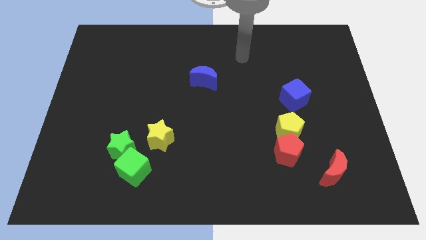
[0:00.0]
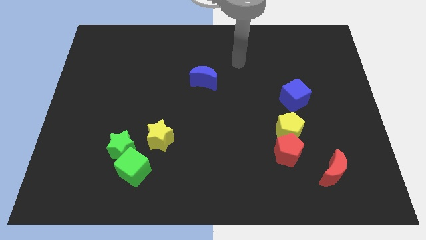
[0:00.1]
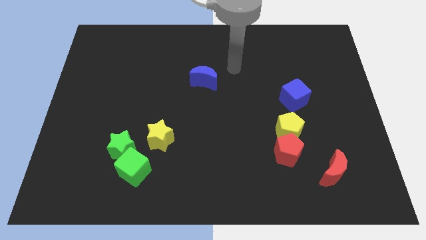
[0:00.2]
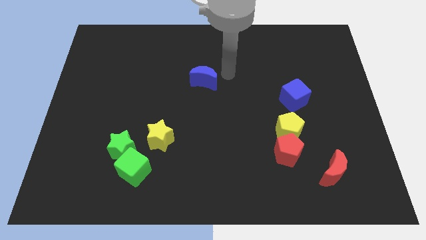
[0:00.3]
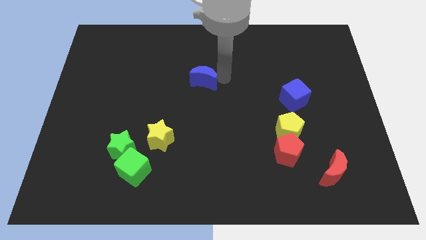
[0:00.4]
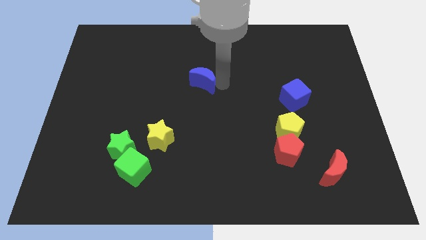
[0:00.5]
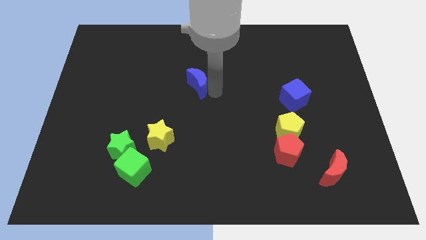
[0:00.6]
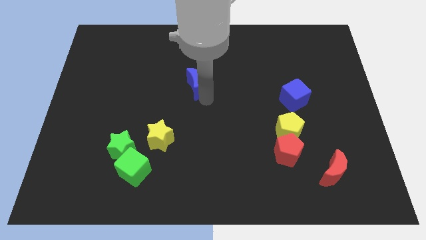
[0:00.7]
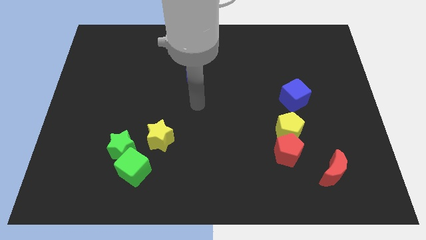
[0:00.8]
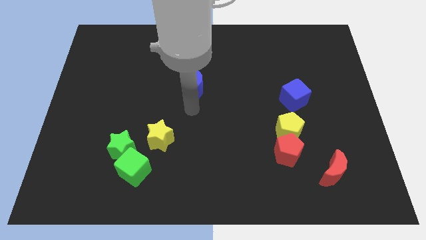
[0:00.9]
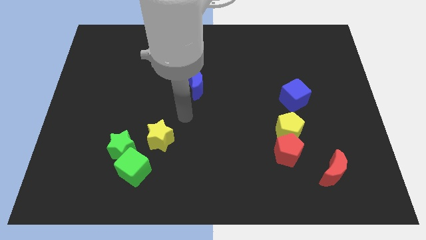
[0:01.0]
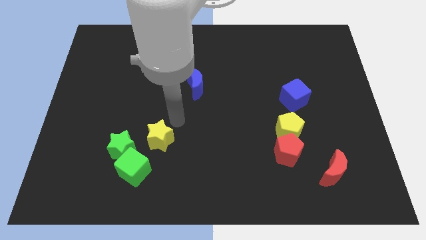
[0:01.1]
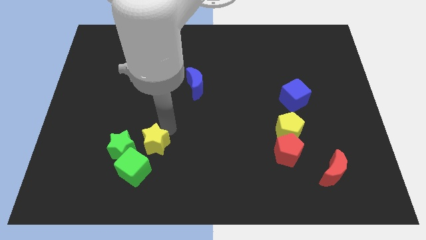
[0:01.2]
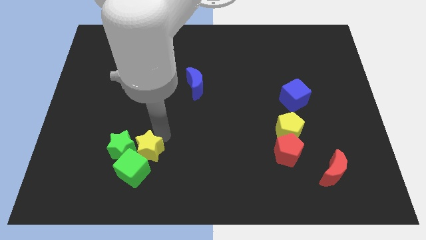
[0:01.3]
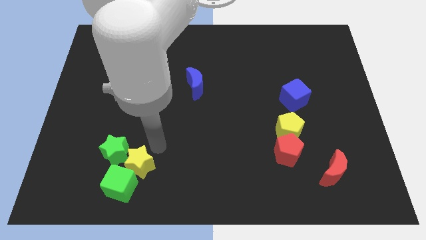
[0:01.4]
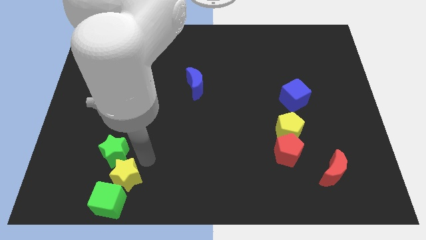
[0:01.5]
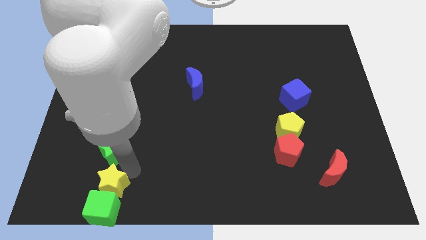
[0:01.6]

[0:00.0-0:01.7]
move the green star away from the green cube and yellow star

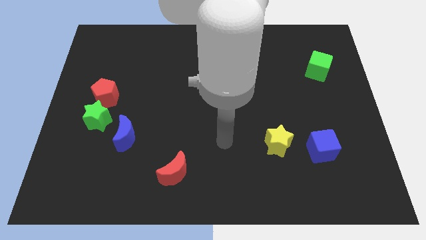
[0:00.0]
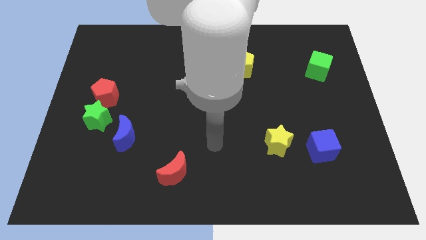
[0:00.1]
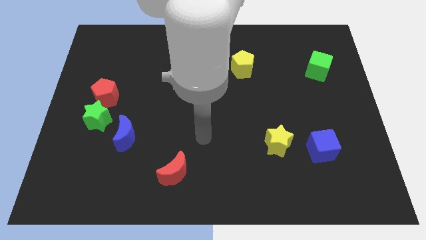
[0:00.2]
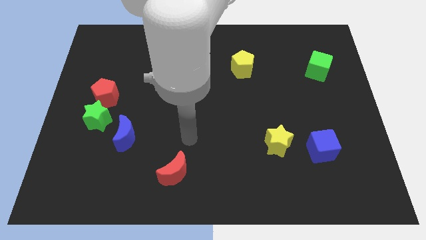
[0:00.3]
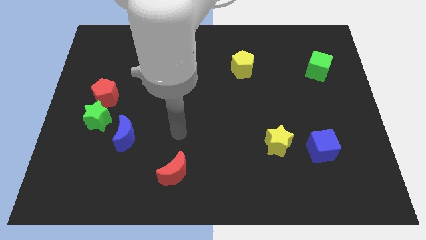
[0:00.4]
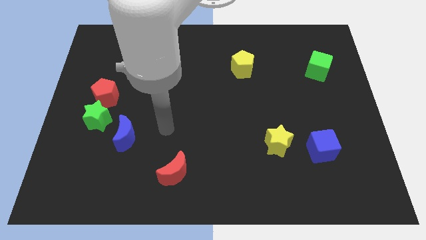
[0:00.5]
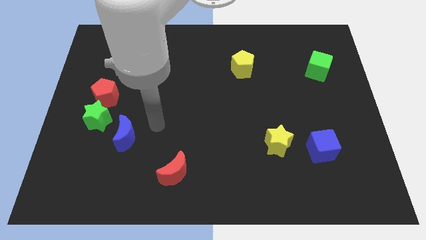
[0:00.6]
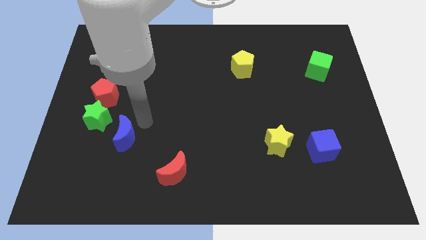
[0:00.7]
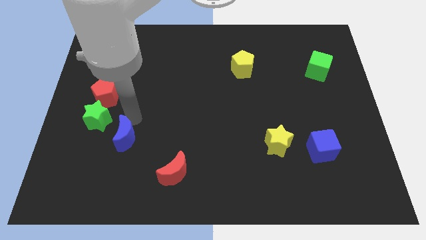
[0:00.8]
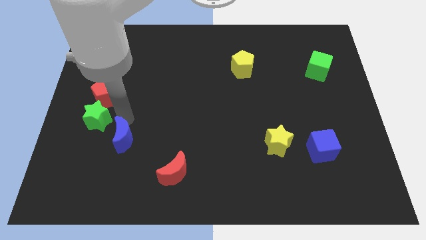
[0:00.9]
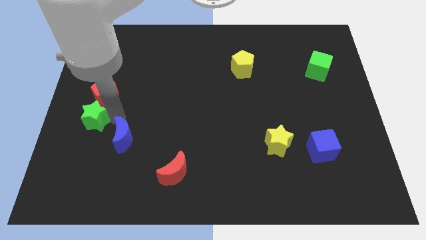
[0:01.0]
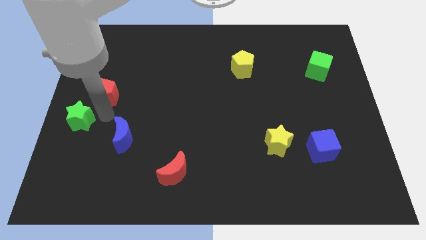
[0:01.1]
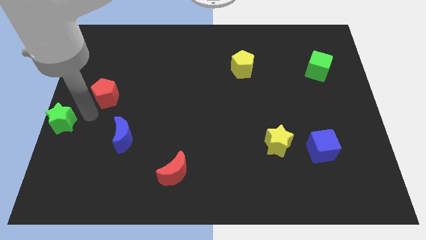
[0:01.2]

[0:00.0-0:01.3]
pull the red pentagon apart from the green star

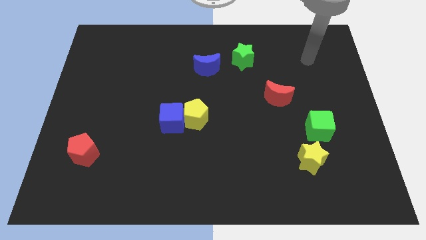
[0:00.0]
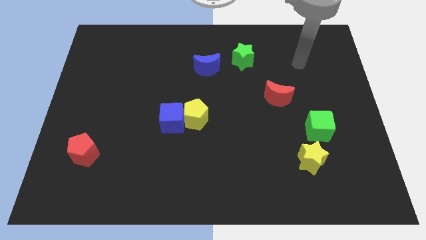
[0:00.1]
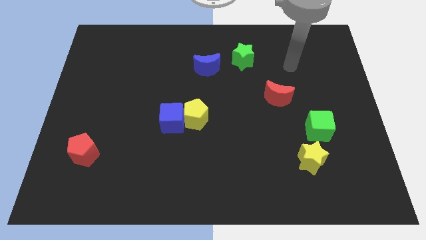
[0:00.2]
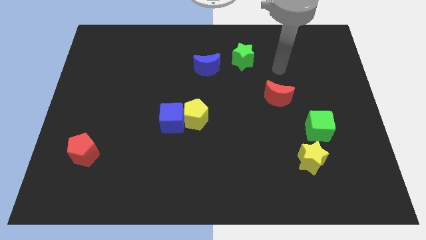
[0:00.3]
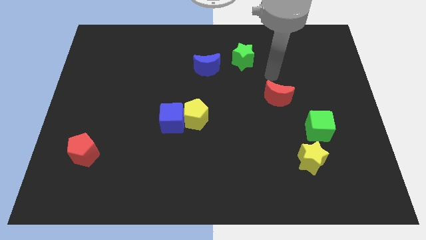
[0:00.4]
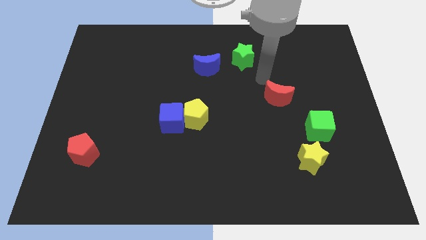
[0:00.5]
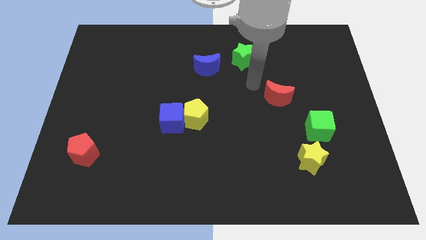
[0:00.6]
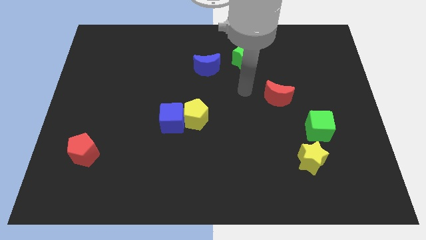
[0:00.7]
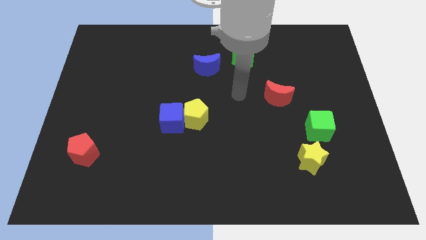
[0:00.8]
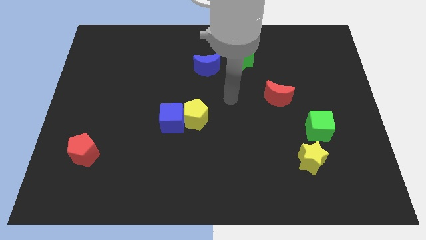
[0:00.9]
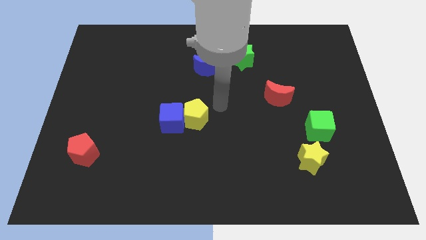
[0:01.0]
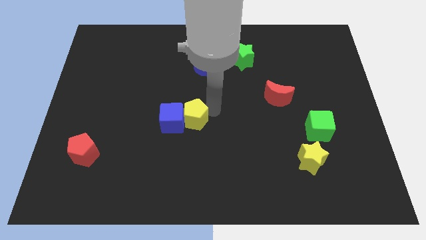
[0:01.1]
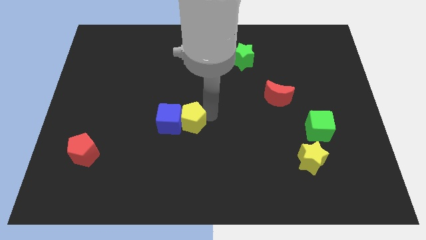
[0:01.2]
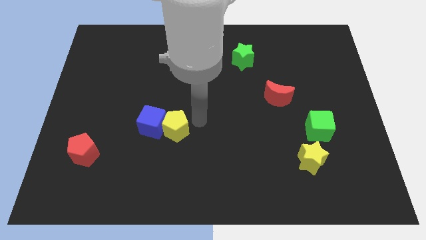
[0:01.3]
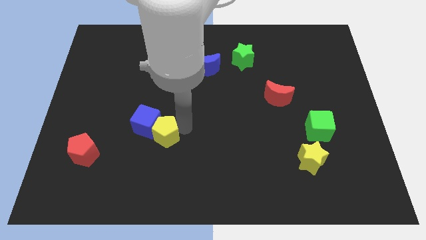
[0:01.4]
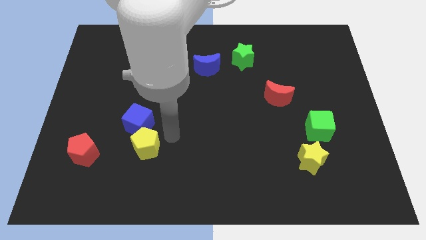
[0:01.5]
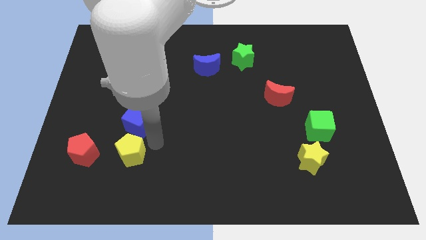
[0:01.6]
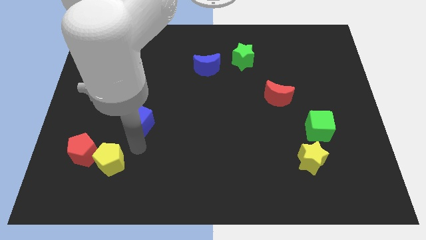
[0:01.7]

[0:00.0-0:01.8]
separate the blue cube from the yellow pentagon

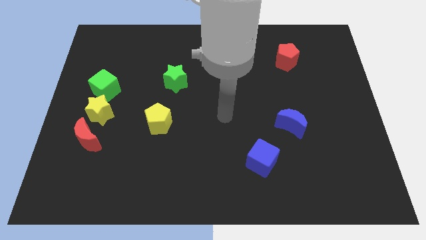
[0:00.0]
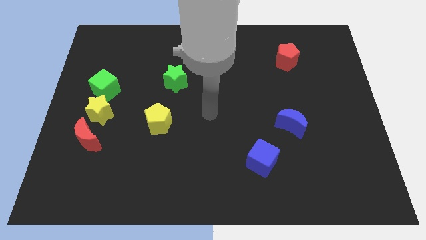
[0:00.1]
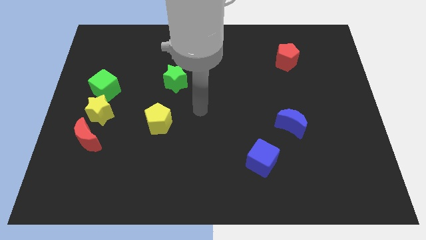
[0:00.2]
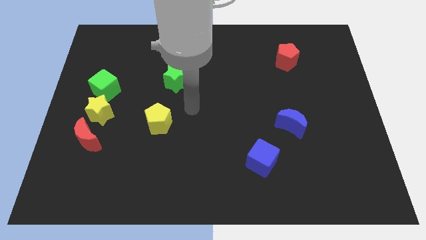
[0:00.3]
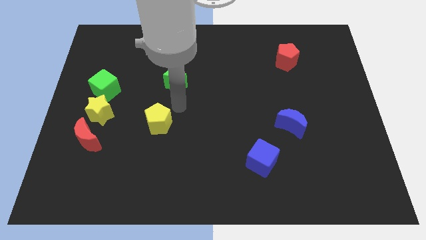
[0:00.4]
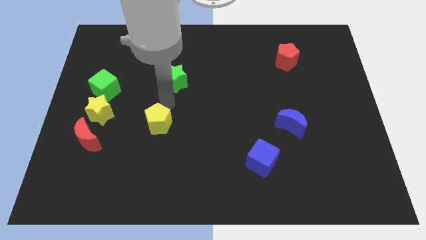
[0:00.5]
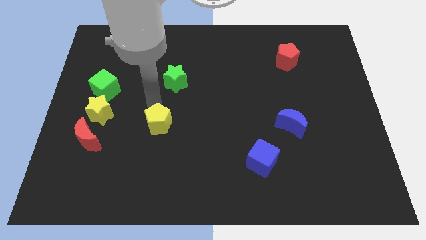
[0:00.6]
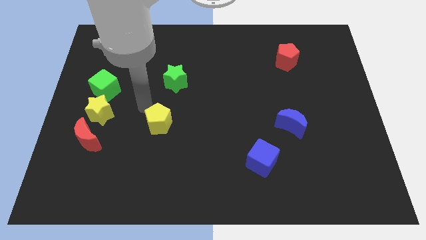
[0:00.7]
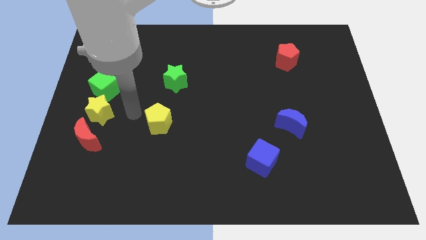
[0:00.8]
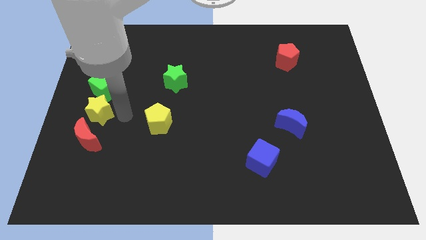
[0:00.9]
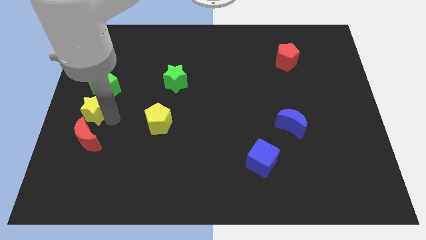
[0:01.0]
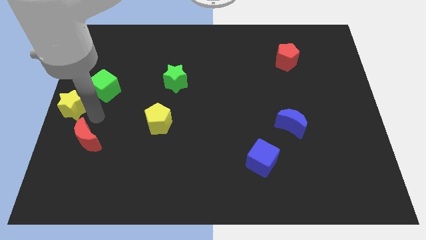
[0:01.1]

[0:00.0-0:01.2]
move the red moon away from the yellow star

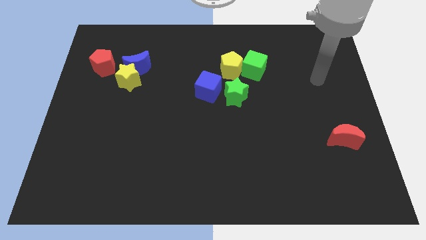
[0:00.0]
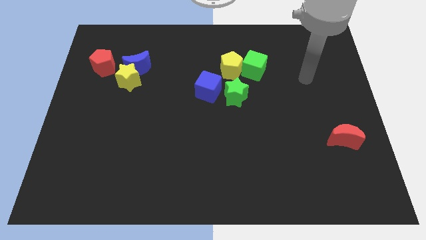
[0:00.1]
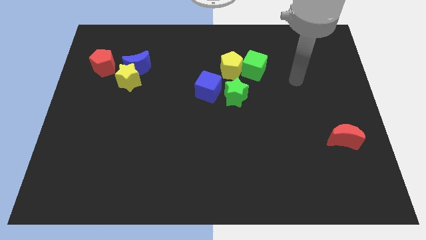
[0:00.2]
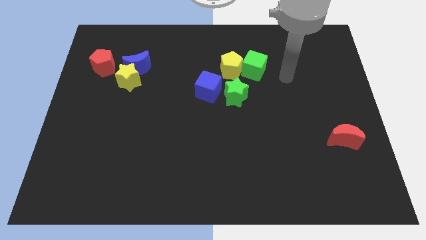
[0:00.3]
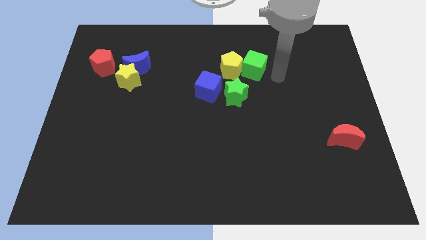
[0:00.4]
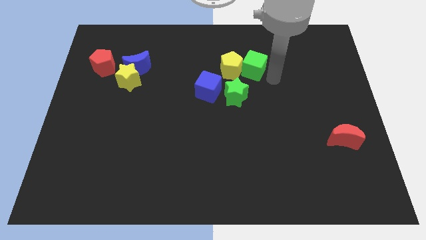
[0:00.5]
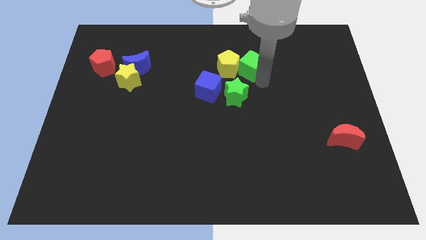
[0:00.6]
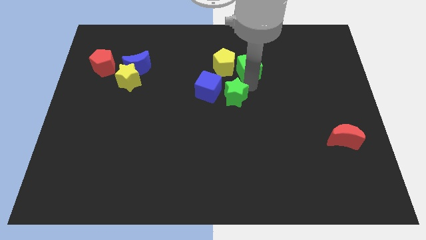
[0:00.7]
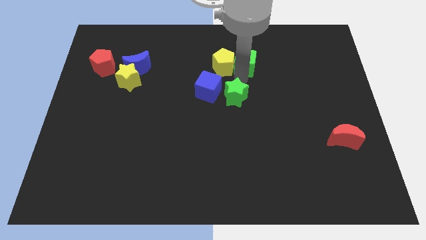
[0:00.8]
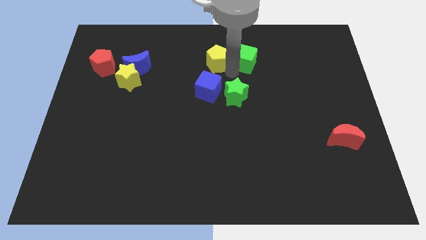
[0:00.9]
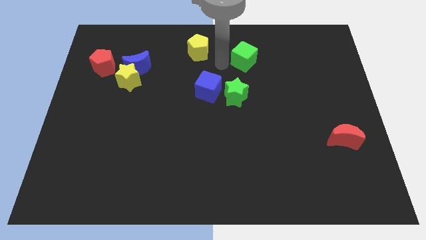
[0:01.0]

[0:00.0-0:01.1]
pull the green cube apart from the yellow pentagon

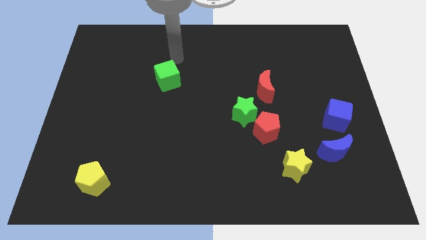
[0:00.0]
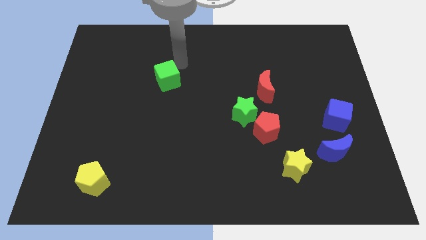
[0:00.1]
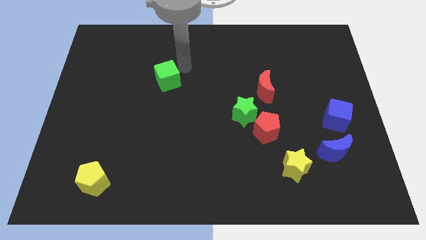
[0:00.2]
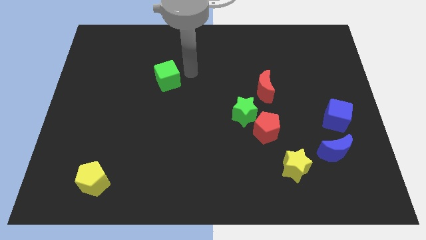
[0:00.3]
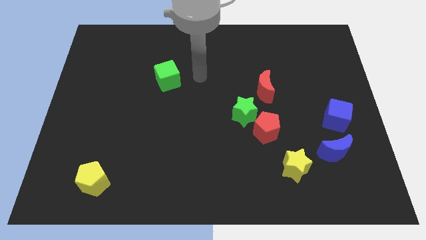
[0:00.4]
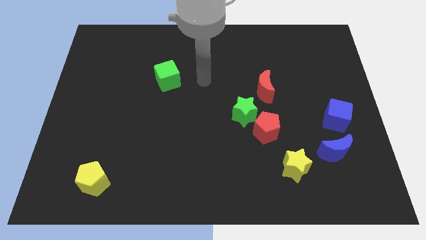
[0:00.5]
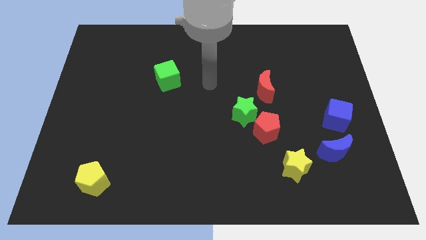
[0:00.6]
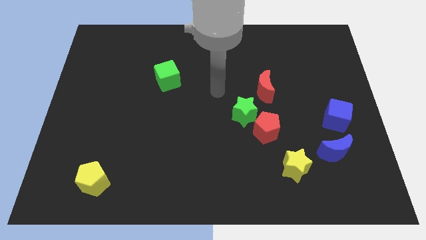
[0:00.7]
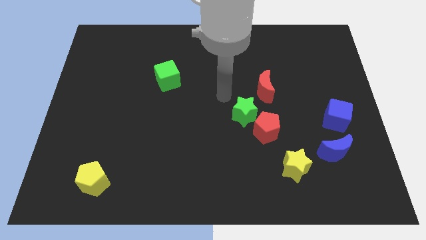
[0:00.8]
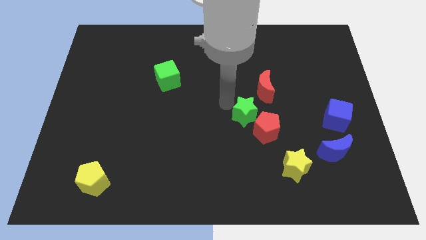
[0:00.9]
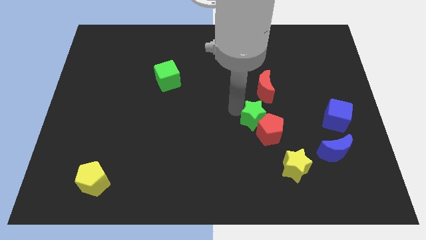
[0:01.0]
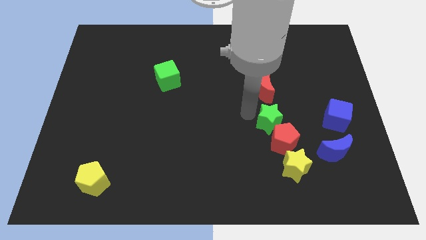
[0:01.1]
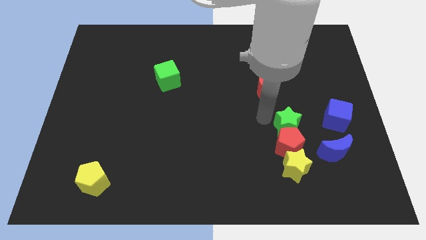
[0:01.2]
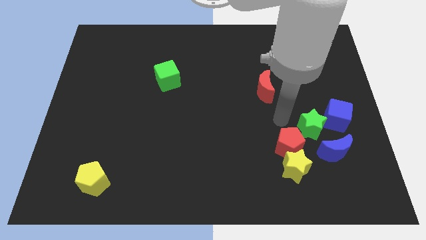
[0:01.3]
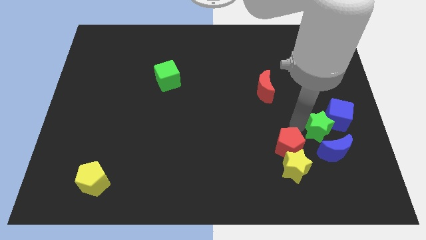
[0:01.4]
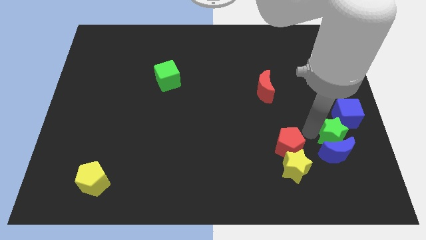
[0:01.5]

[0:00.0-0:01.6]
separate the red pentagon from the green star

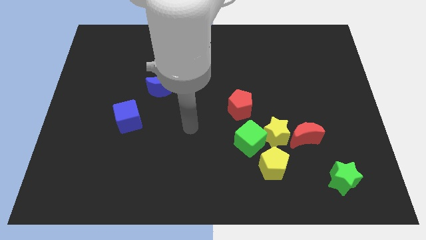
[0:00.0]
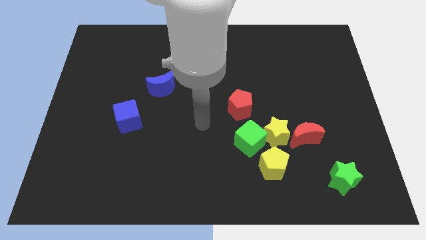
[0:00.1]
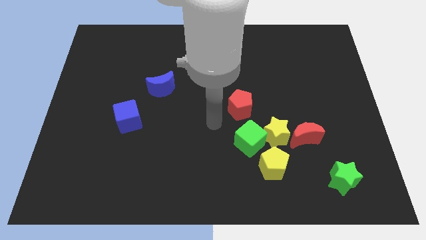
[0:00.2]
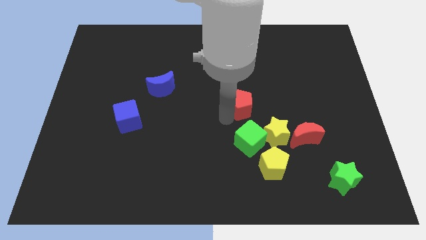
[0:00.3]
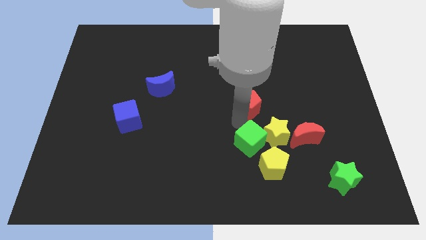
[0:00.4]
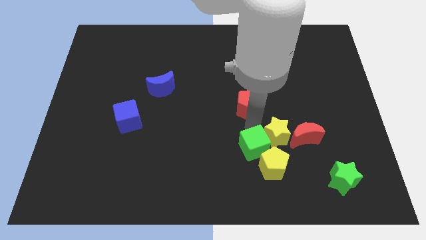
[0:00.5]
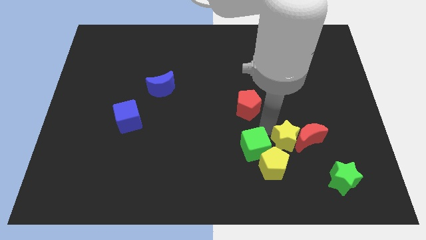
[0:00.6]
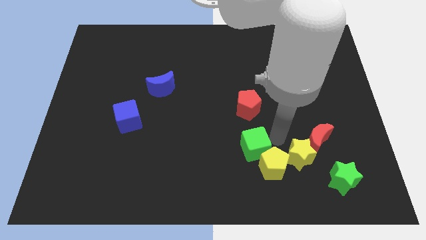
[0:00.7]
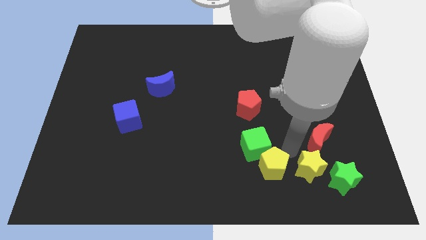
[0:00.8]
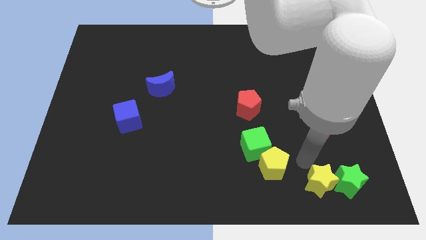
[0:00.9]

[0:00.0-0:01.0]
pull the red moon apart from the yellow star
